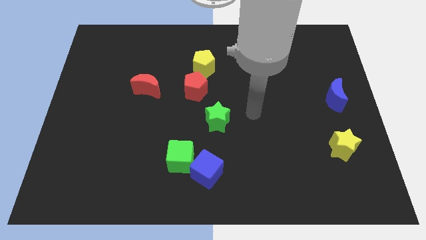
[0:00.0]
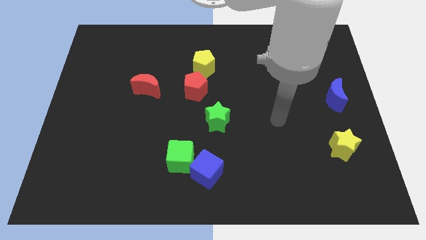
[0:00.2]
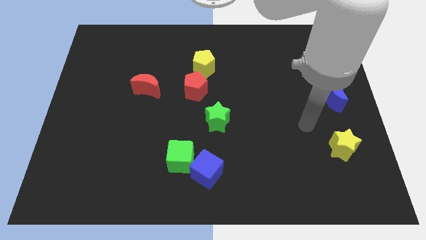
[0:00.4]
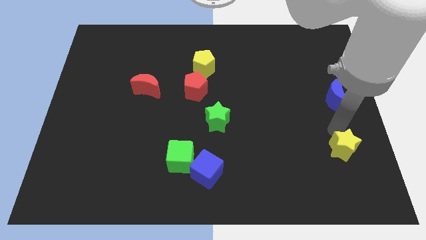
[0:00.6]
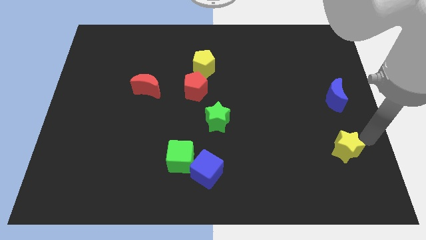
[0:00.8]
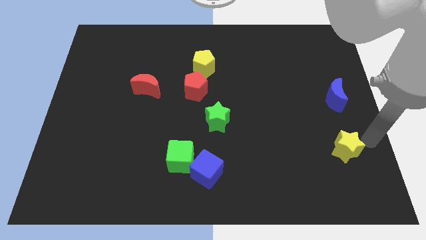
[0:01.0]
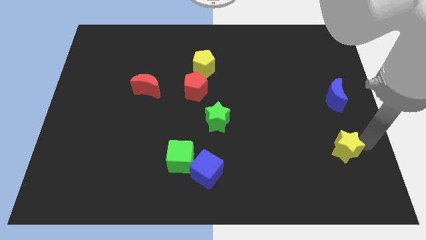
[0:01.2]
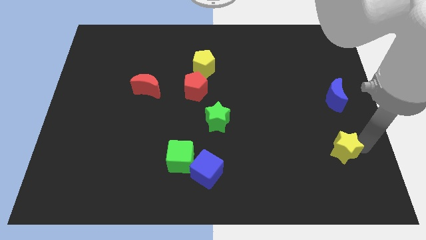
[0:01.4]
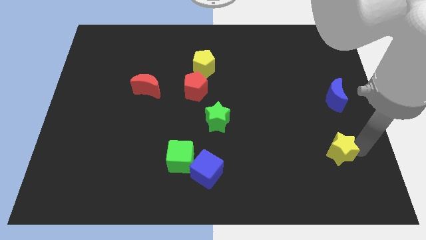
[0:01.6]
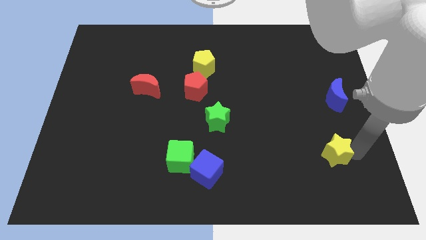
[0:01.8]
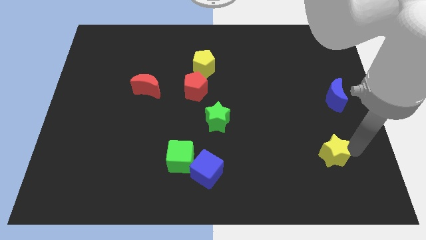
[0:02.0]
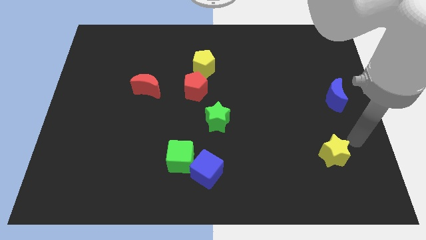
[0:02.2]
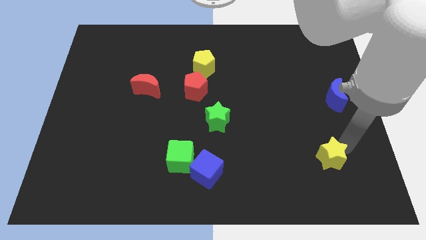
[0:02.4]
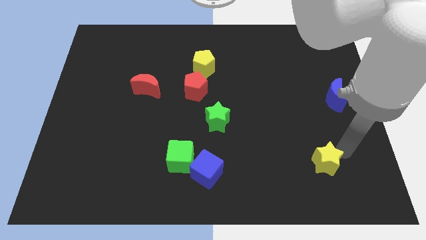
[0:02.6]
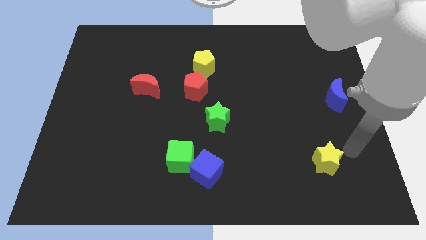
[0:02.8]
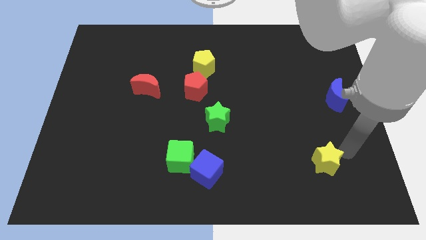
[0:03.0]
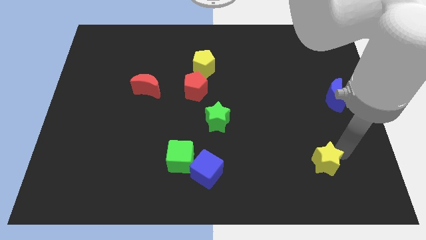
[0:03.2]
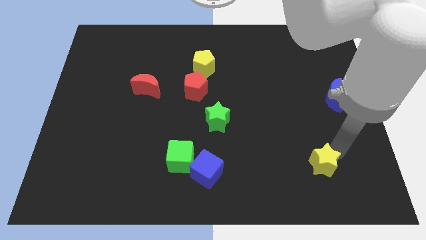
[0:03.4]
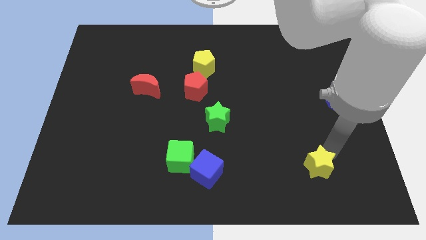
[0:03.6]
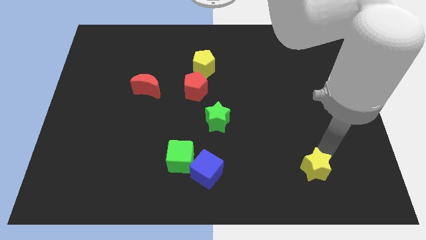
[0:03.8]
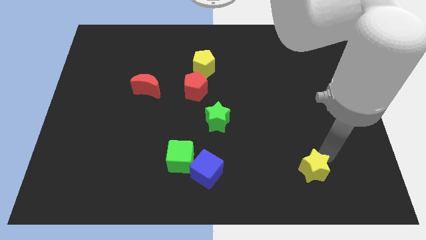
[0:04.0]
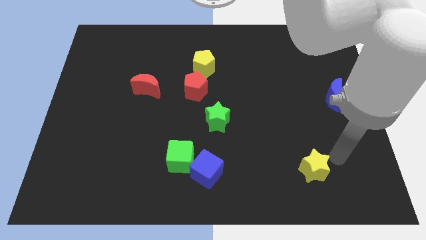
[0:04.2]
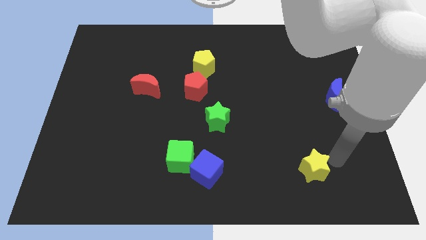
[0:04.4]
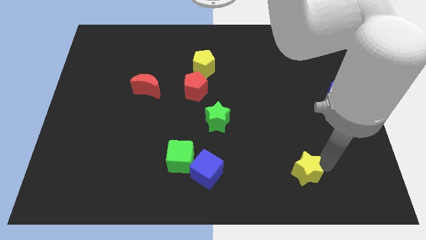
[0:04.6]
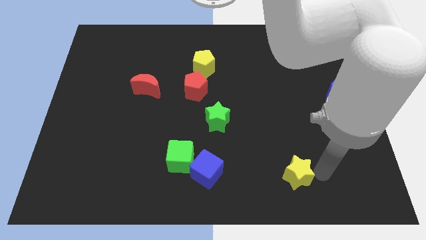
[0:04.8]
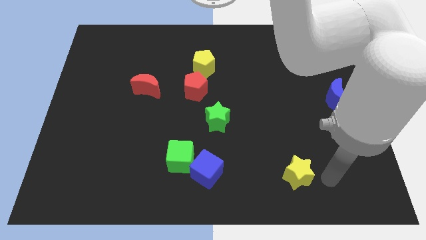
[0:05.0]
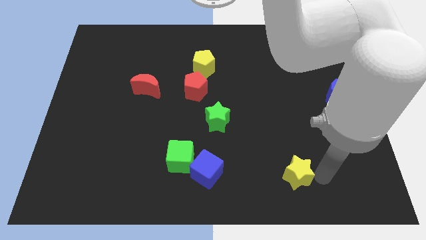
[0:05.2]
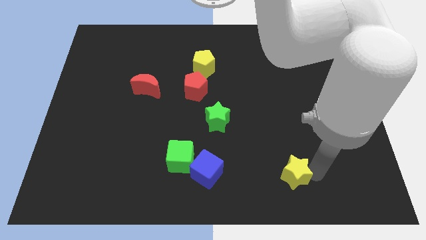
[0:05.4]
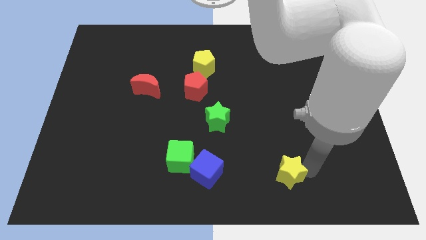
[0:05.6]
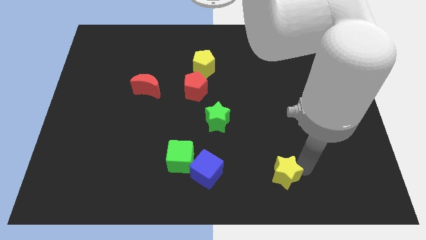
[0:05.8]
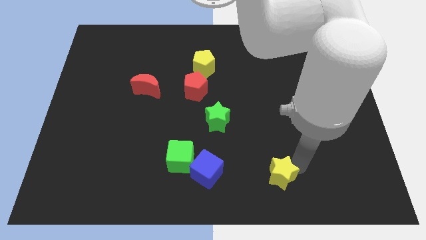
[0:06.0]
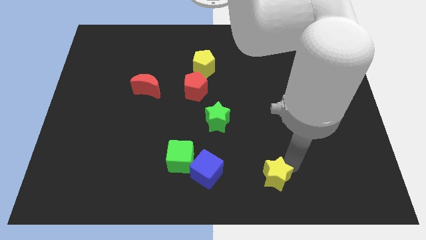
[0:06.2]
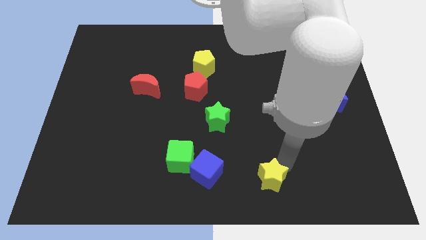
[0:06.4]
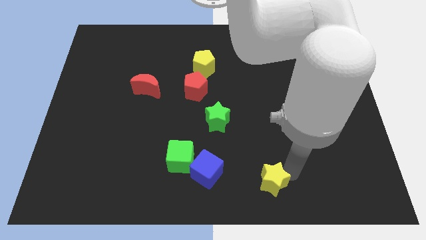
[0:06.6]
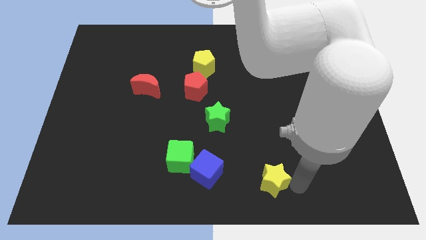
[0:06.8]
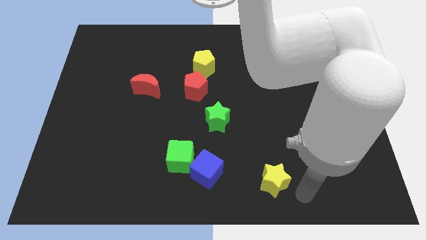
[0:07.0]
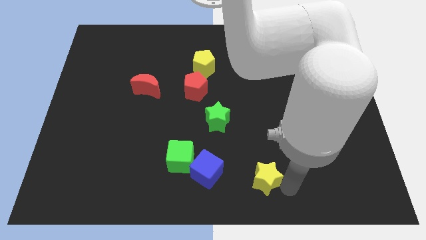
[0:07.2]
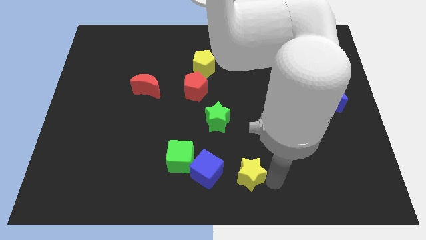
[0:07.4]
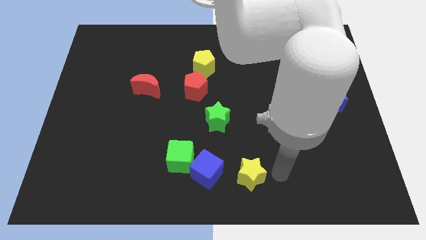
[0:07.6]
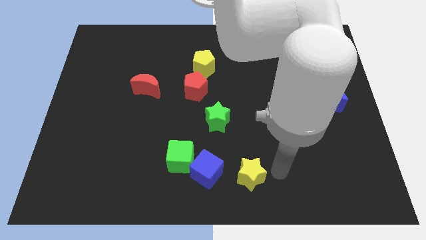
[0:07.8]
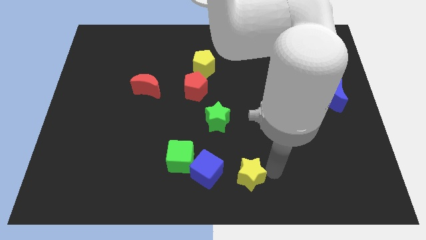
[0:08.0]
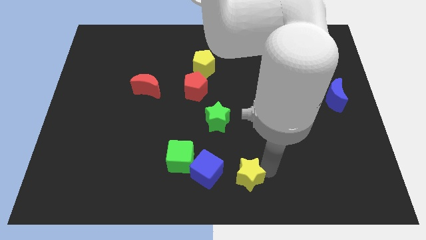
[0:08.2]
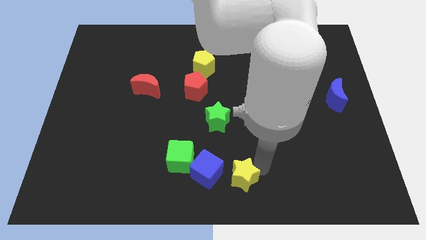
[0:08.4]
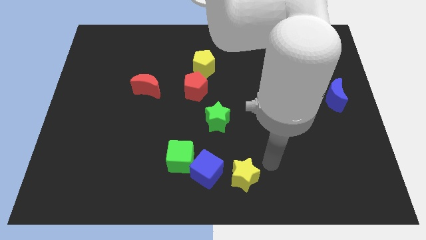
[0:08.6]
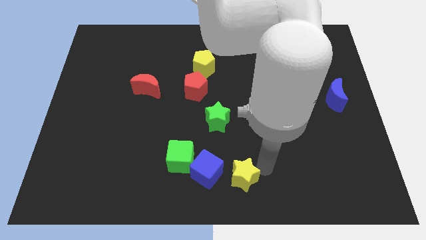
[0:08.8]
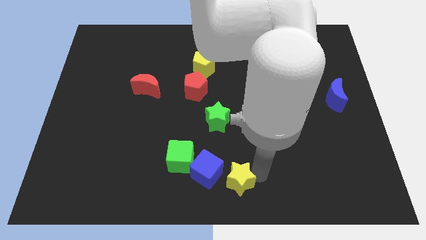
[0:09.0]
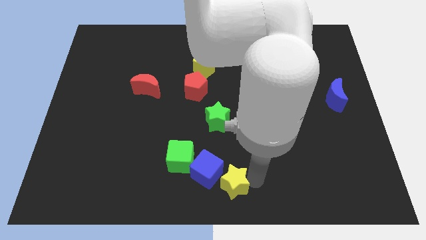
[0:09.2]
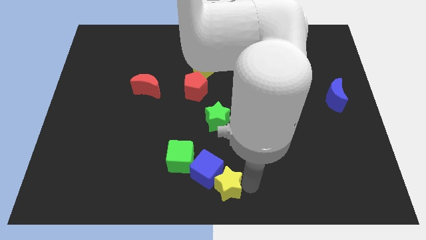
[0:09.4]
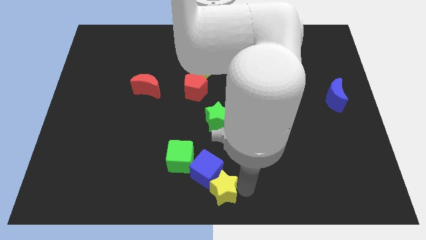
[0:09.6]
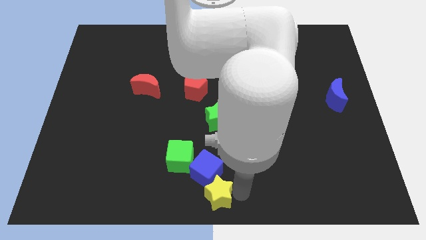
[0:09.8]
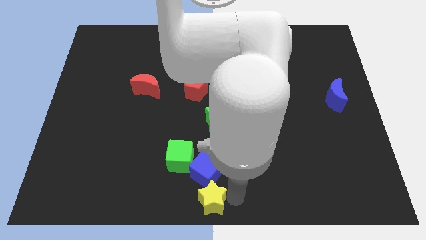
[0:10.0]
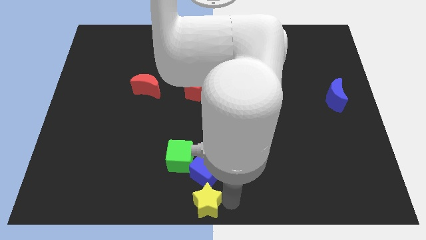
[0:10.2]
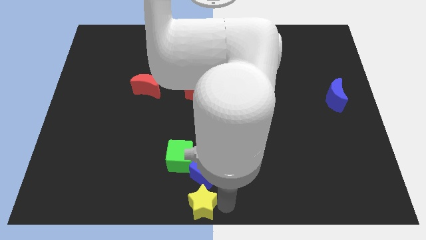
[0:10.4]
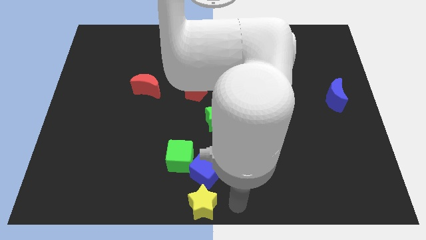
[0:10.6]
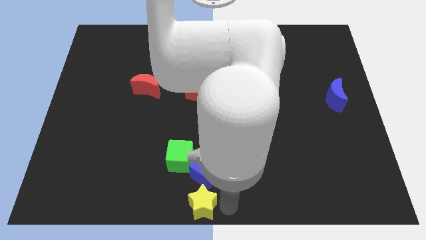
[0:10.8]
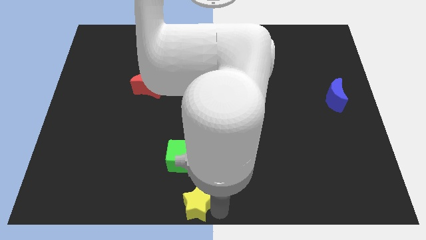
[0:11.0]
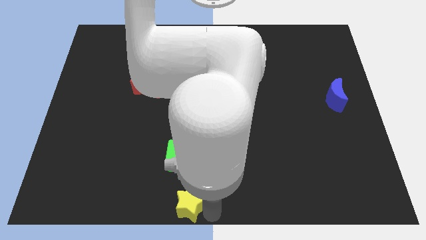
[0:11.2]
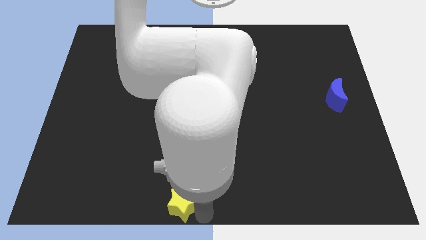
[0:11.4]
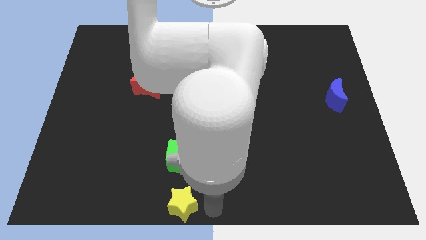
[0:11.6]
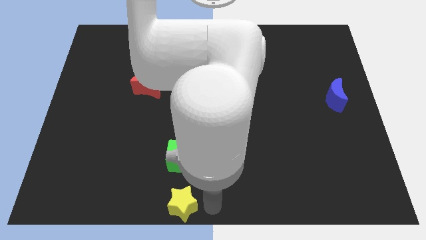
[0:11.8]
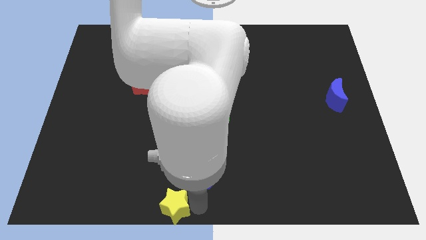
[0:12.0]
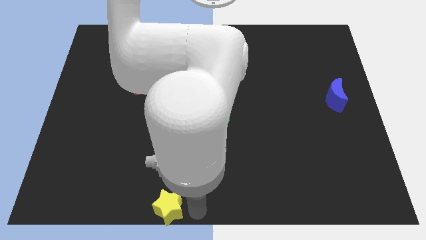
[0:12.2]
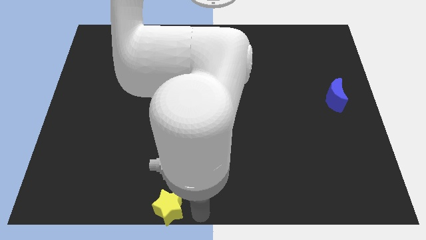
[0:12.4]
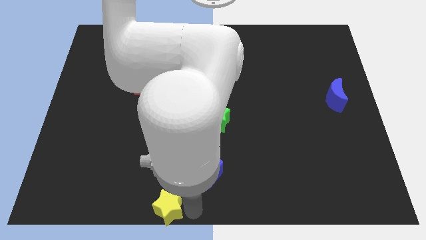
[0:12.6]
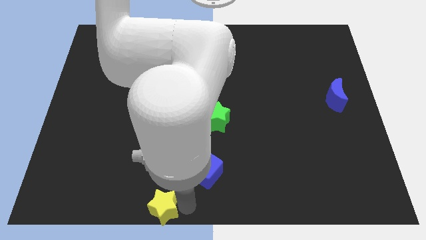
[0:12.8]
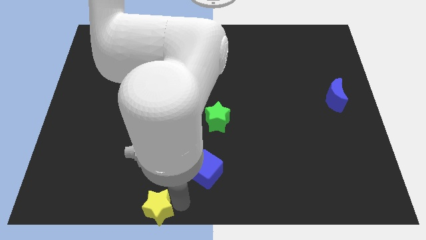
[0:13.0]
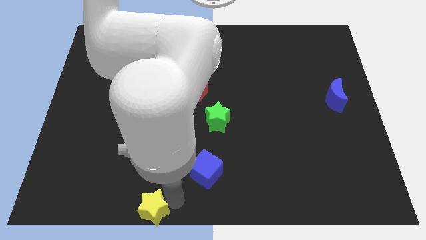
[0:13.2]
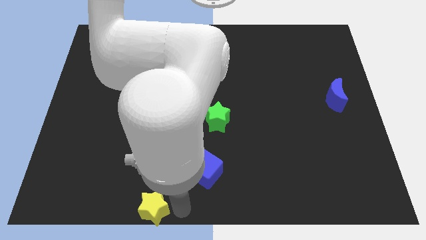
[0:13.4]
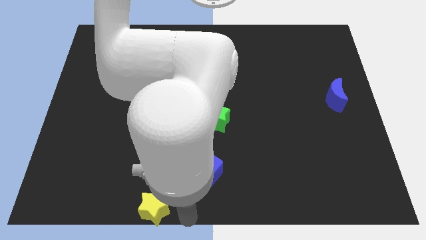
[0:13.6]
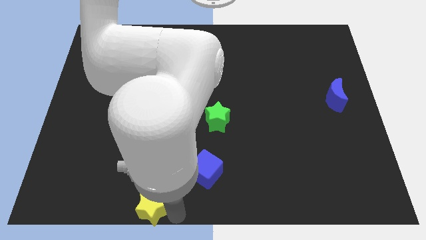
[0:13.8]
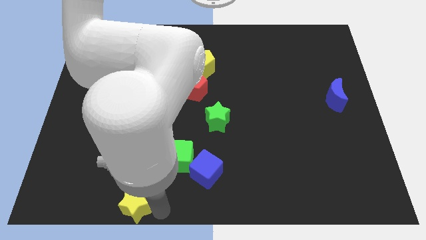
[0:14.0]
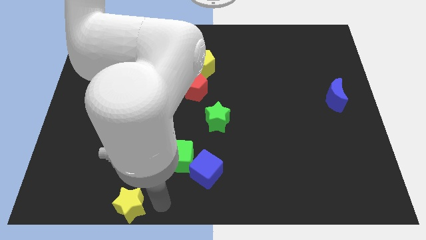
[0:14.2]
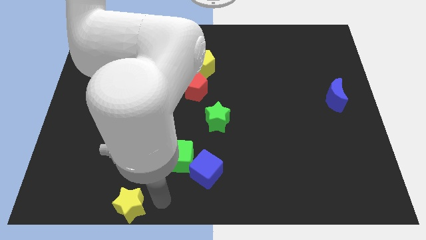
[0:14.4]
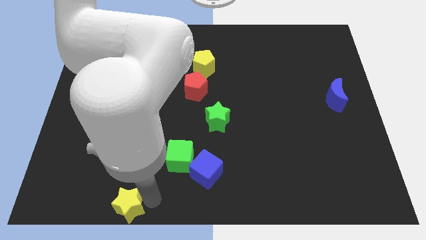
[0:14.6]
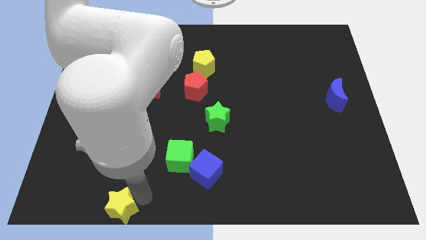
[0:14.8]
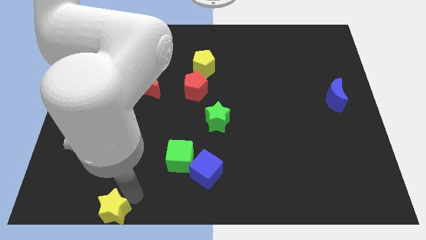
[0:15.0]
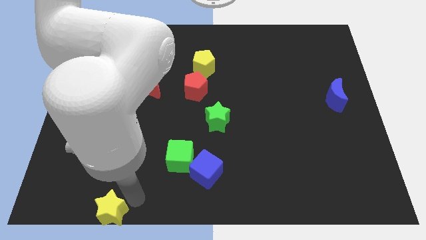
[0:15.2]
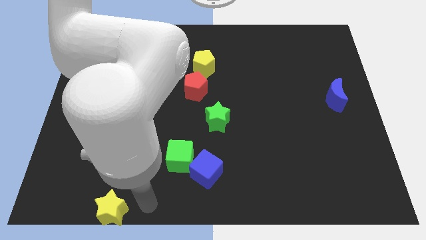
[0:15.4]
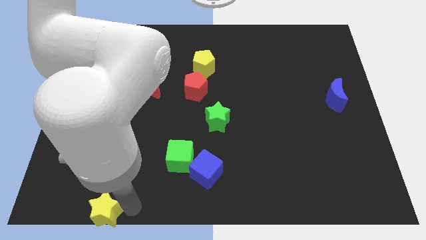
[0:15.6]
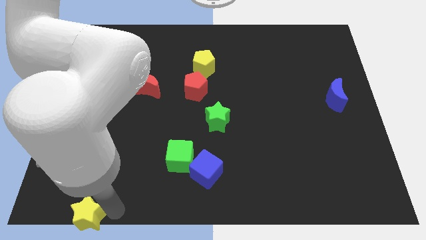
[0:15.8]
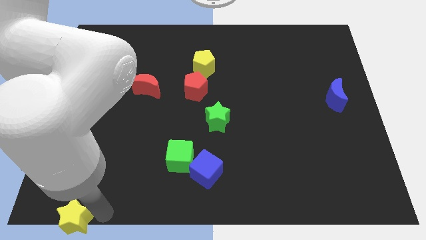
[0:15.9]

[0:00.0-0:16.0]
slide the yellow star to the bottom left
